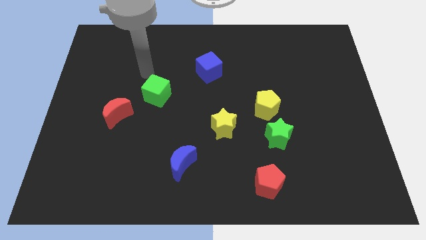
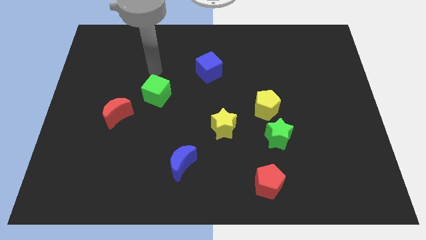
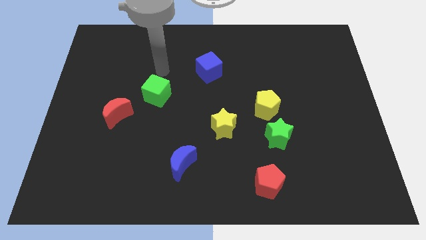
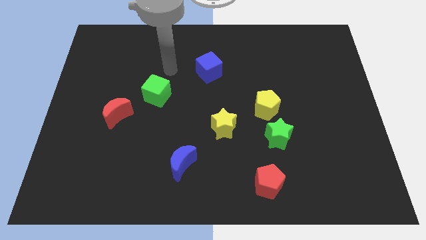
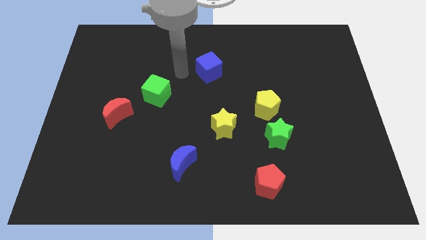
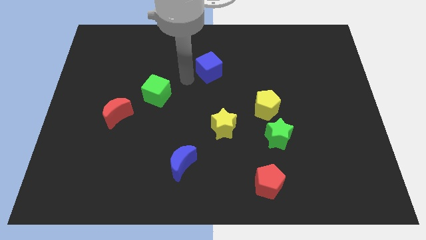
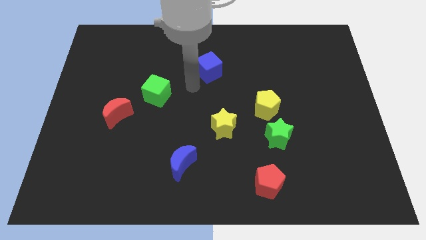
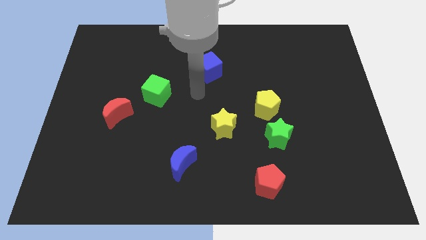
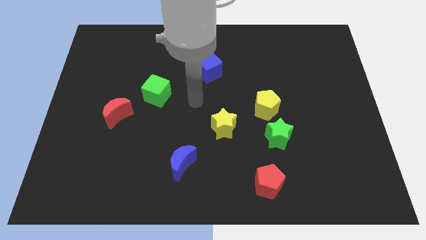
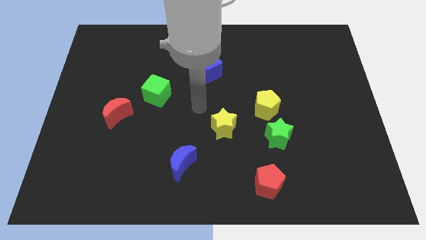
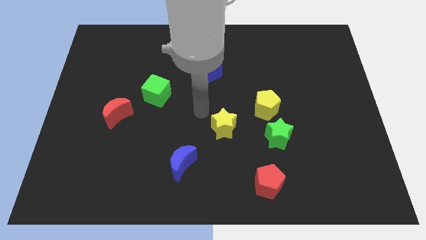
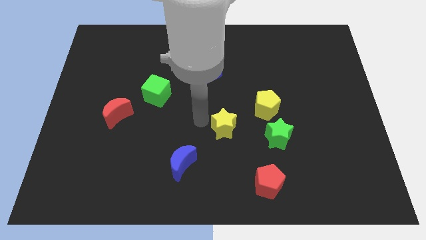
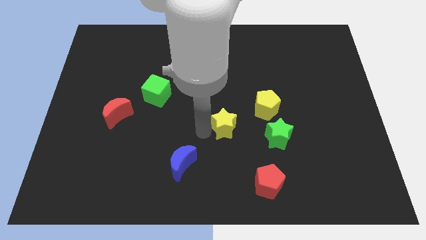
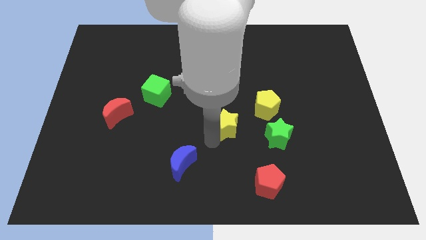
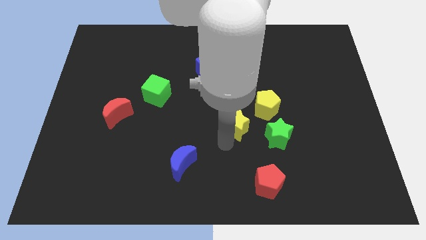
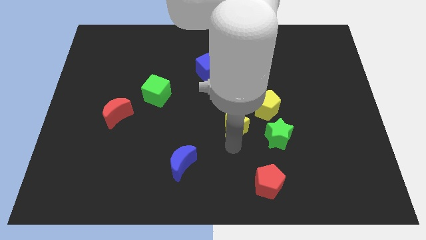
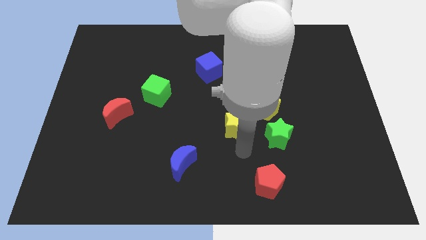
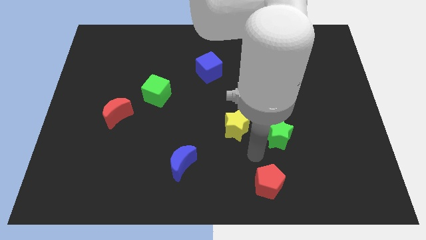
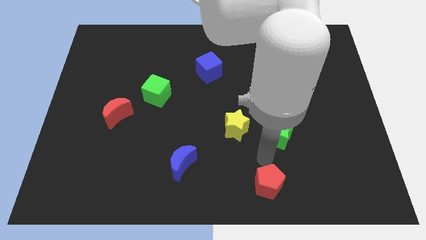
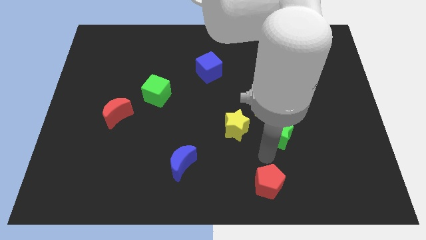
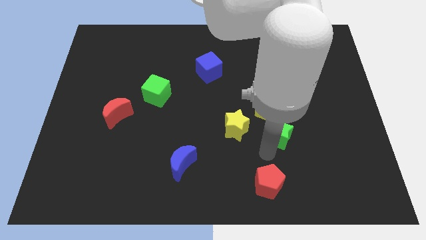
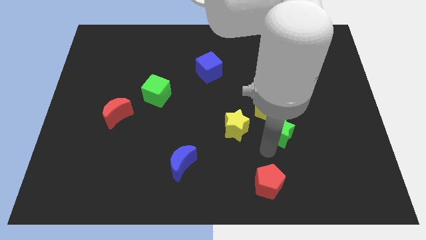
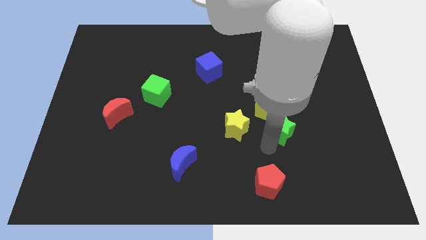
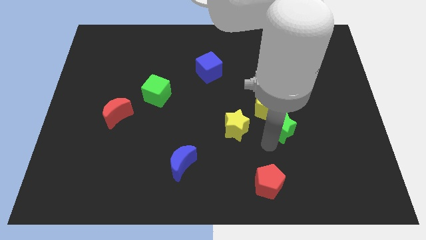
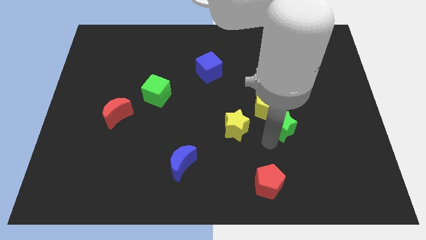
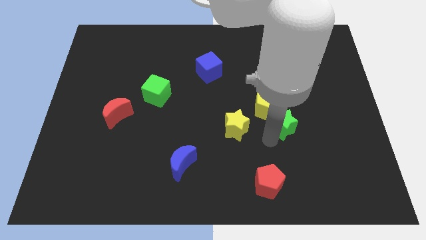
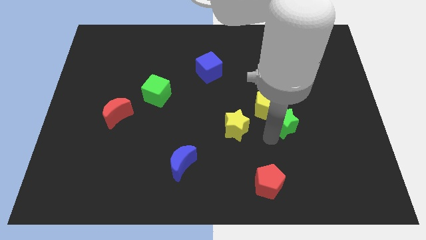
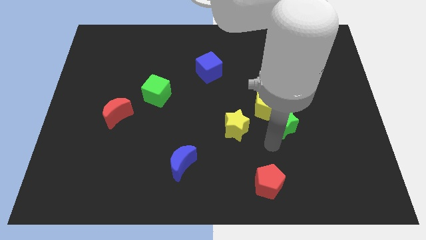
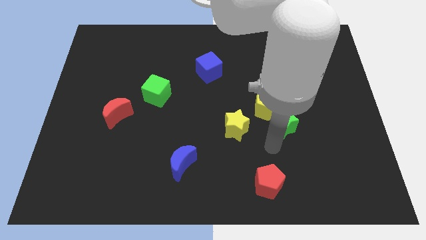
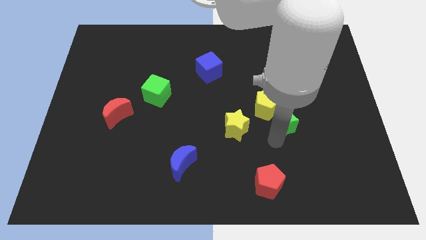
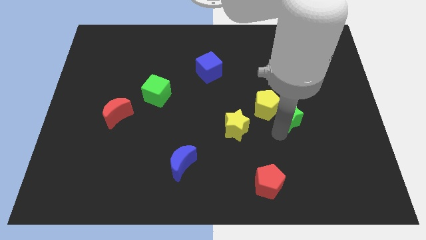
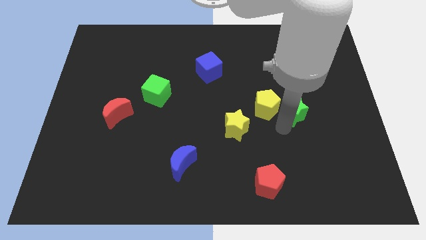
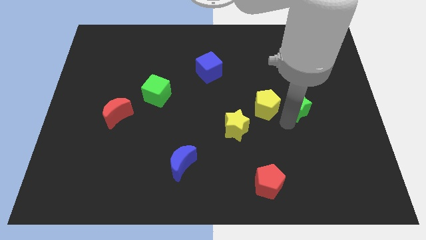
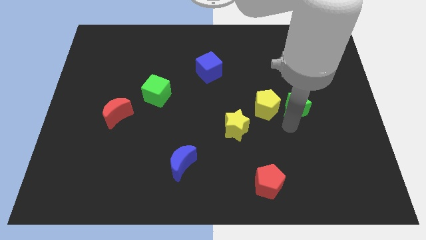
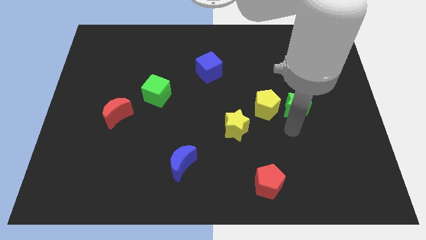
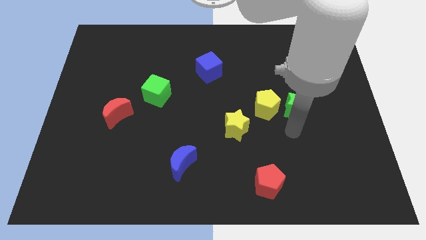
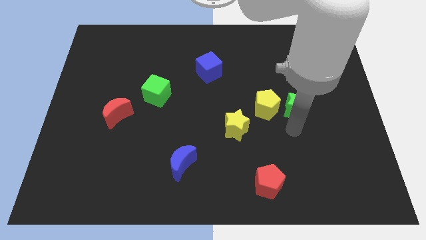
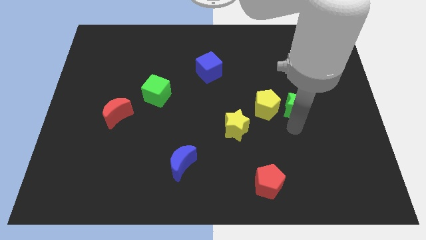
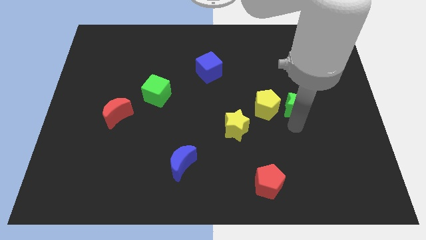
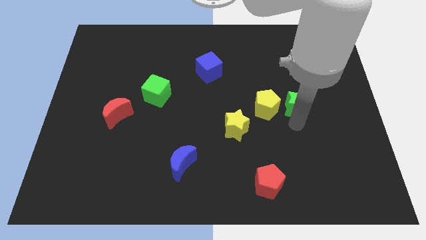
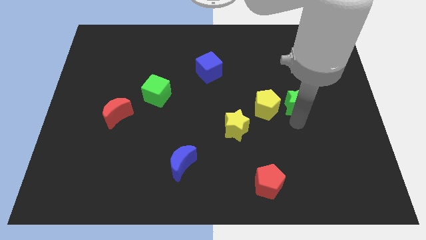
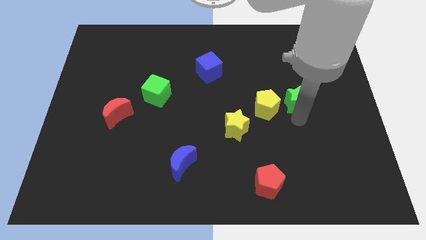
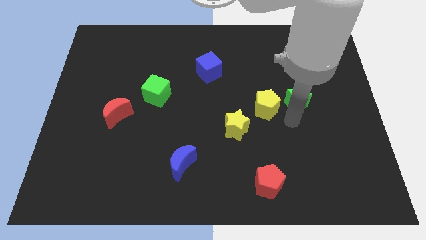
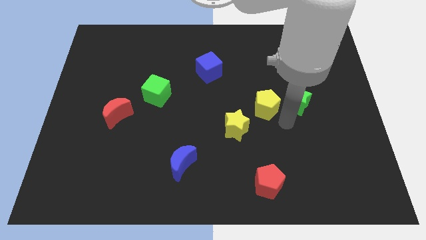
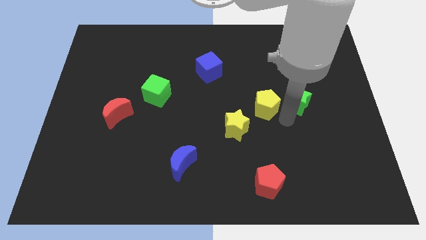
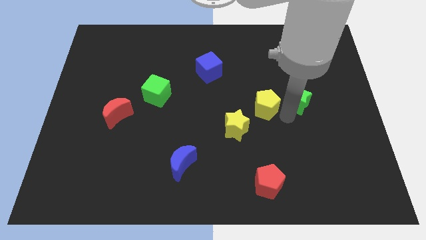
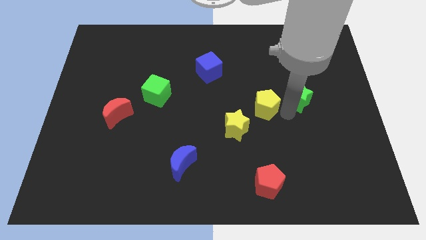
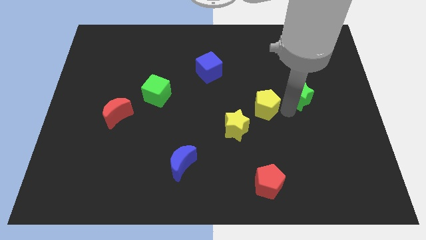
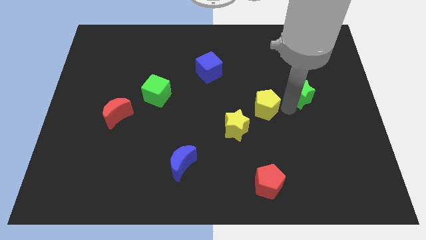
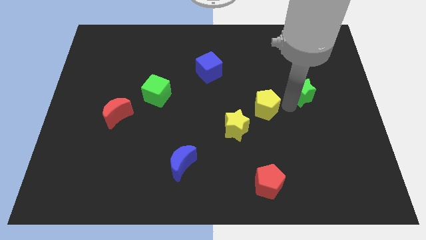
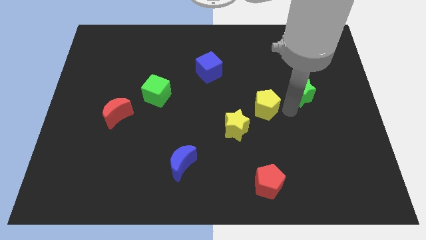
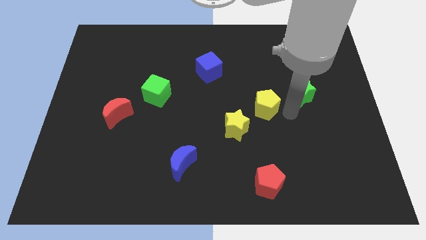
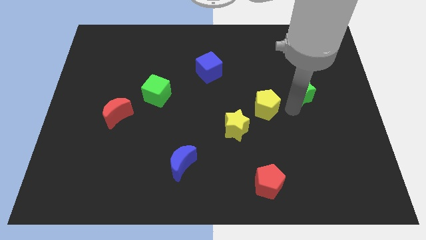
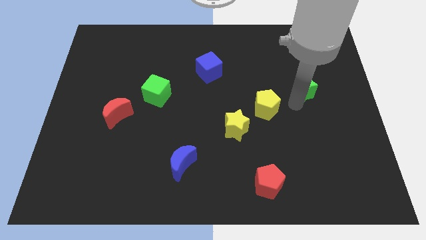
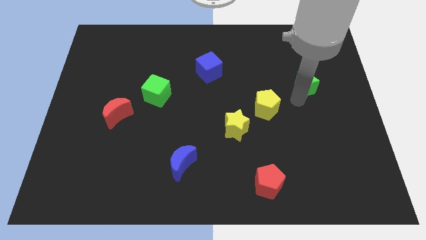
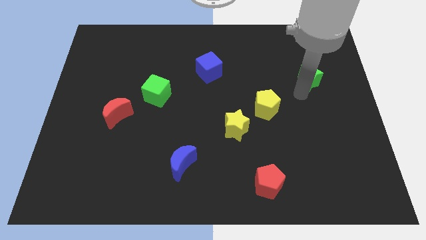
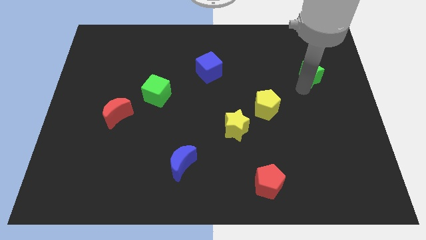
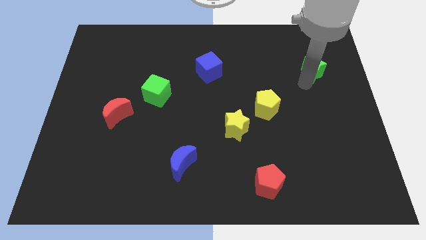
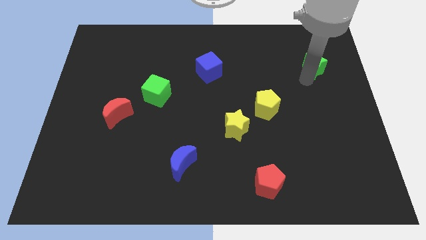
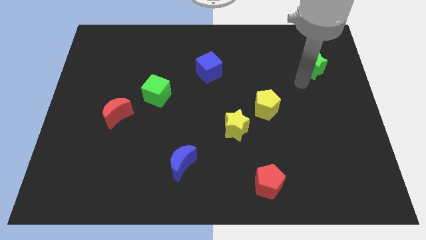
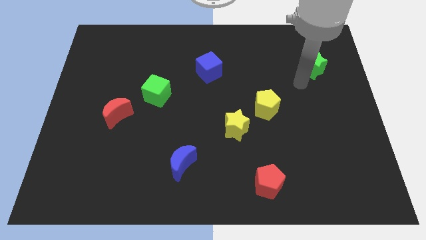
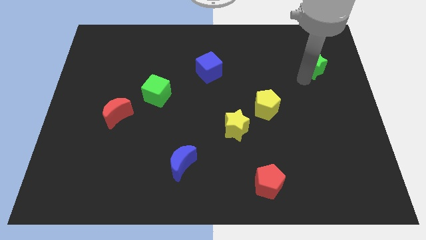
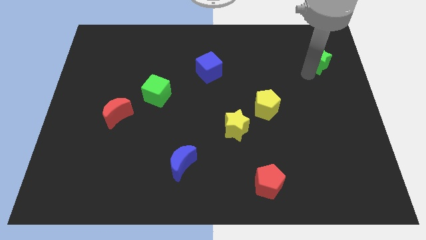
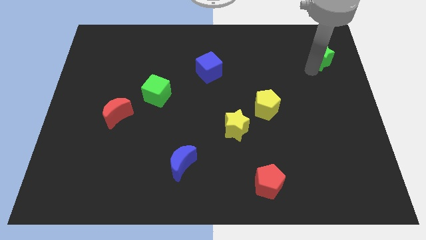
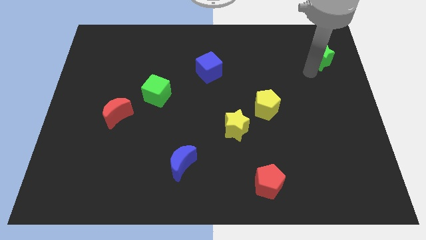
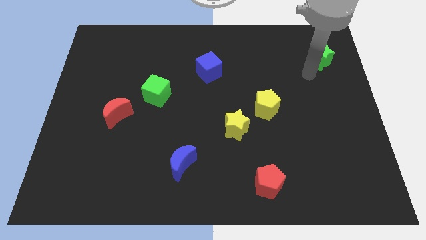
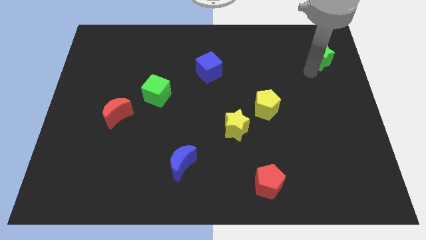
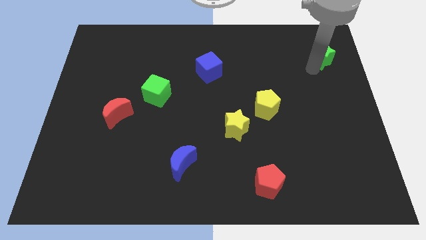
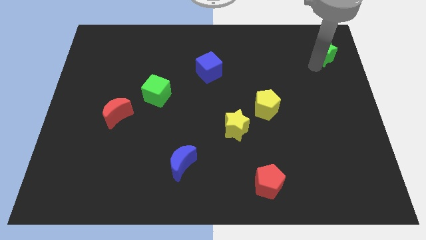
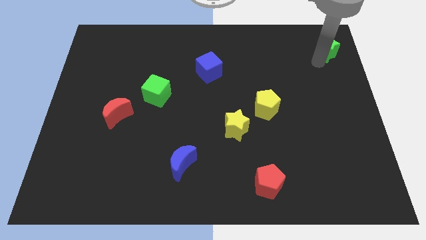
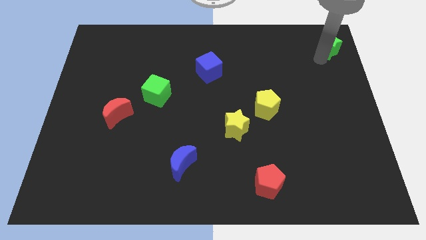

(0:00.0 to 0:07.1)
move the green star to the upper right corner

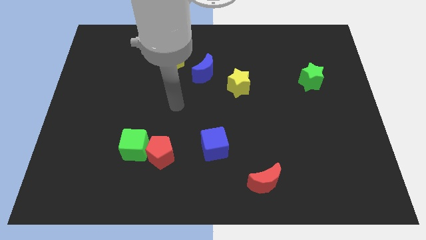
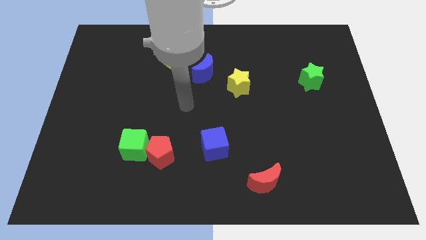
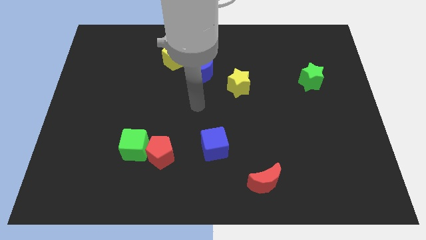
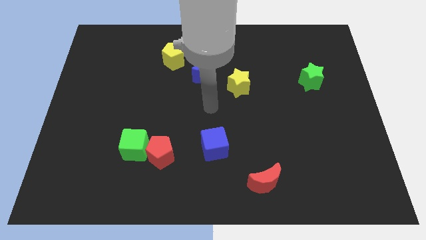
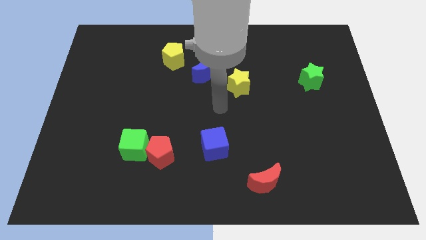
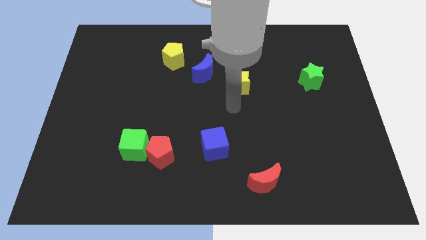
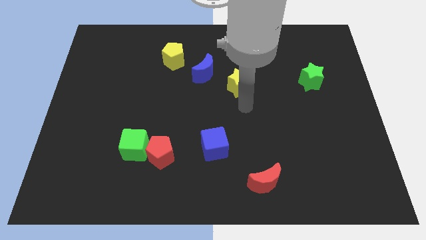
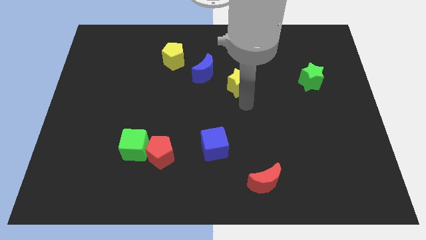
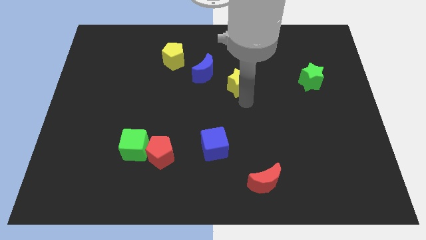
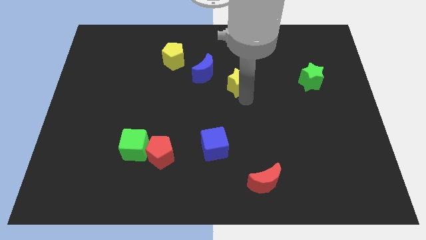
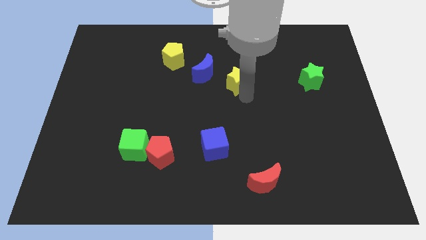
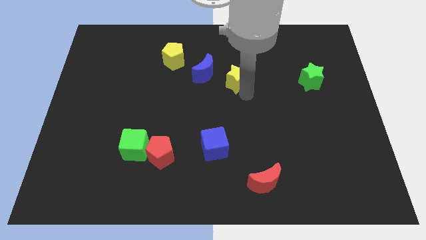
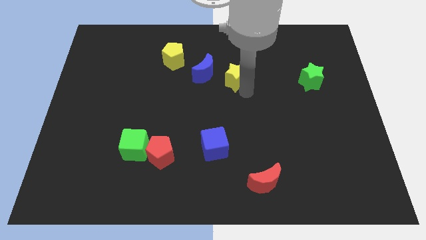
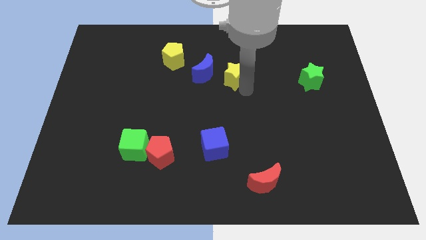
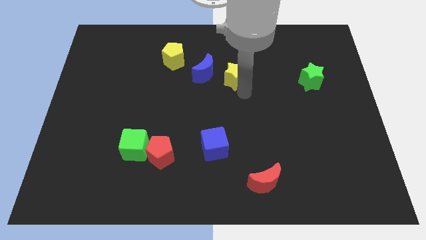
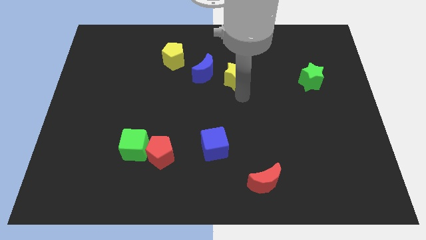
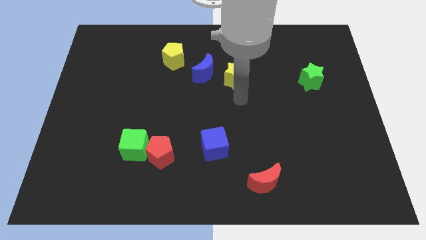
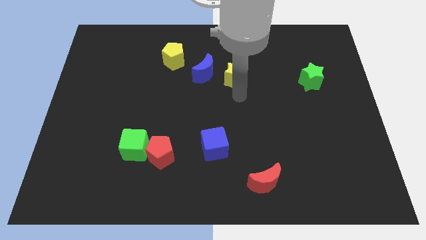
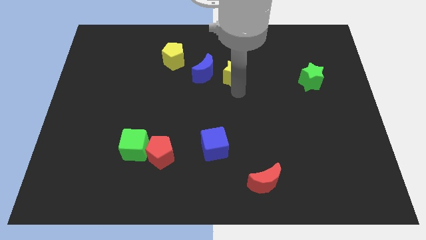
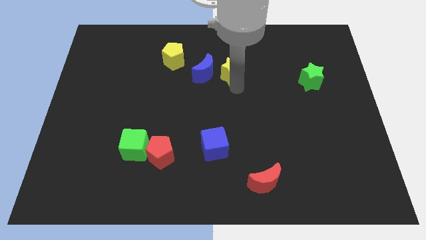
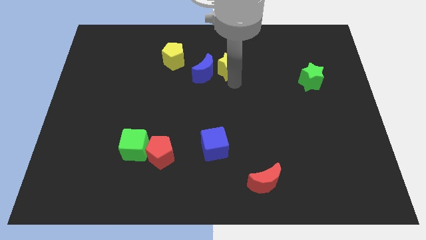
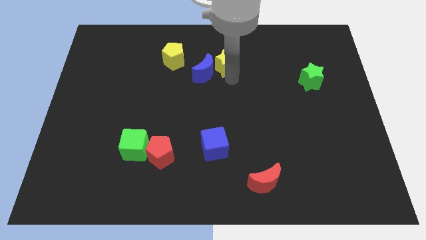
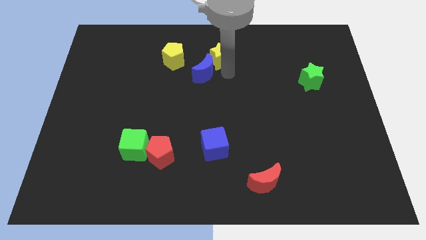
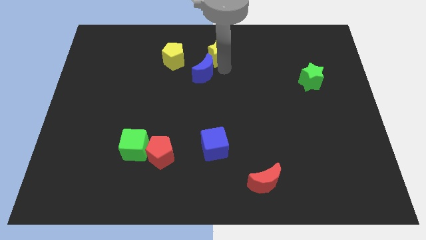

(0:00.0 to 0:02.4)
move the yellow star to the towards your base
